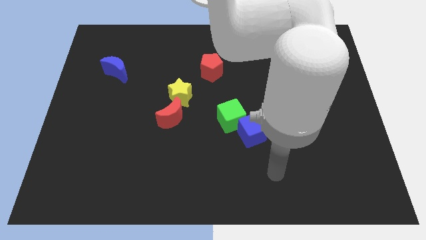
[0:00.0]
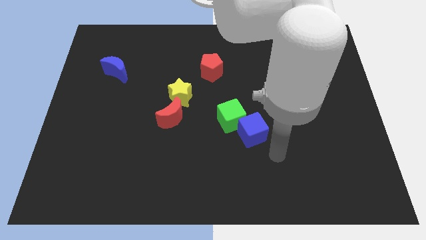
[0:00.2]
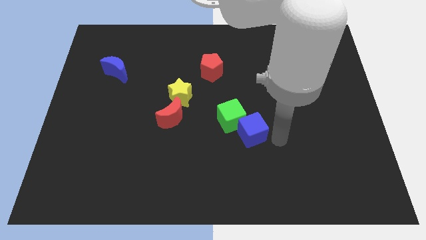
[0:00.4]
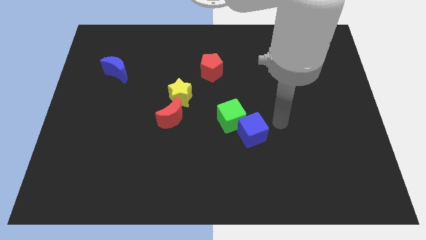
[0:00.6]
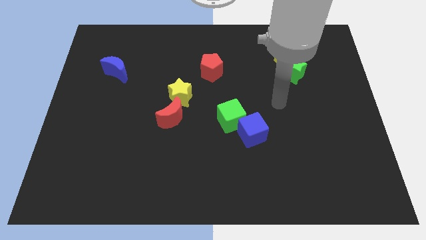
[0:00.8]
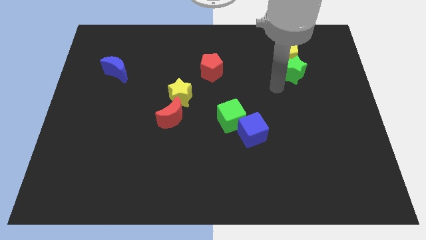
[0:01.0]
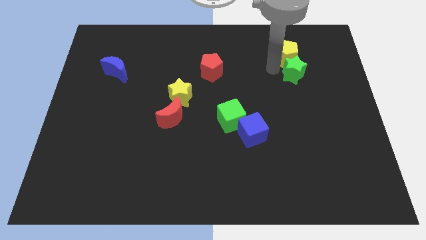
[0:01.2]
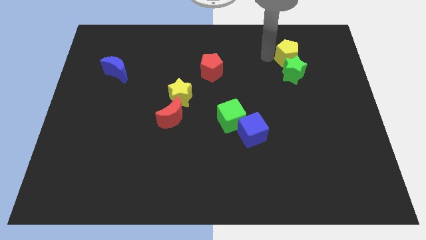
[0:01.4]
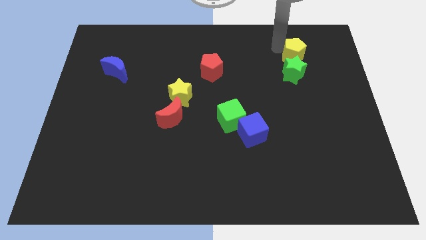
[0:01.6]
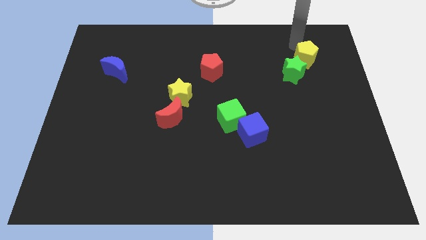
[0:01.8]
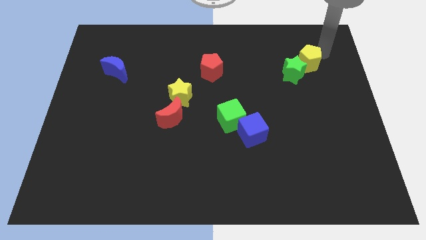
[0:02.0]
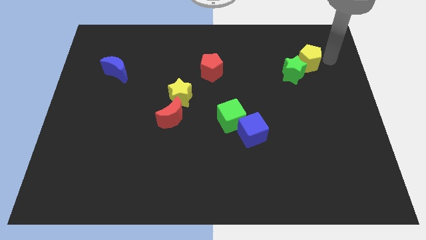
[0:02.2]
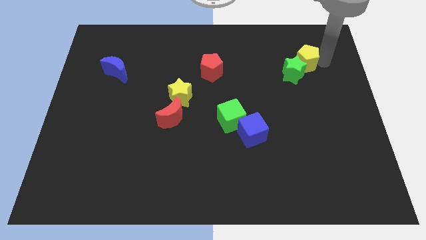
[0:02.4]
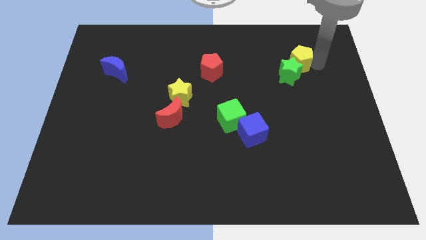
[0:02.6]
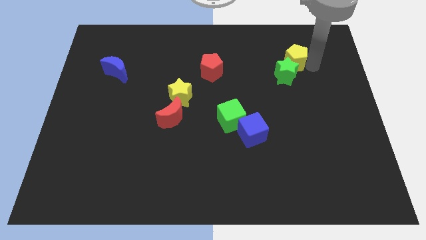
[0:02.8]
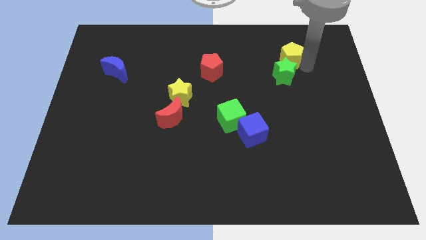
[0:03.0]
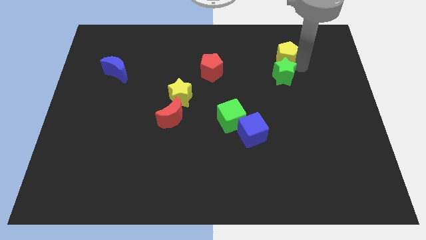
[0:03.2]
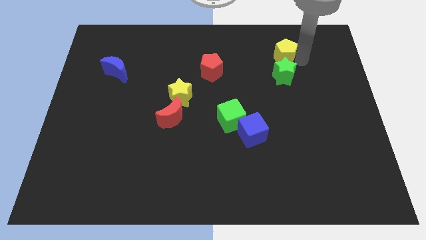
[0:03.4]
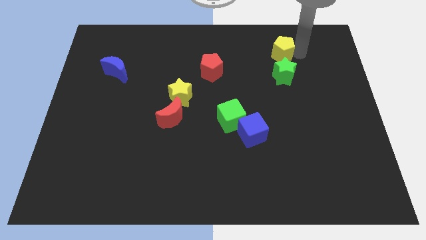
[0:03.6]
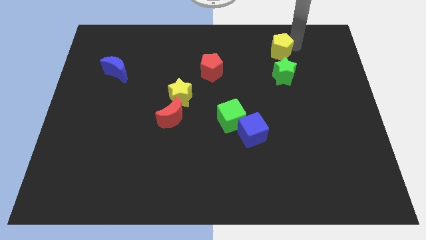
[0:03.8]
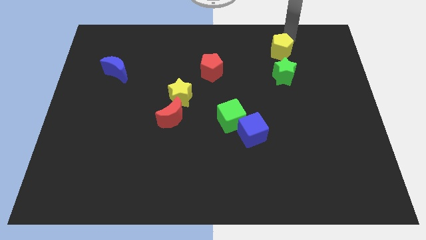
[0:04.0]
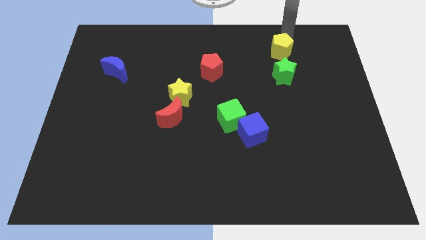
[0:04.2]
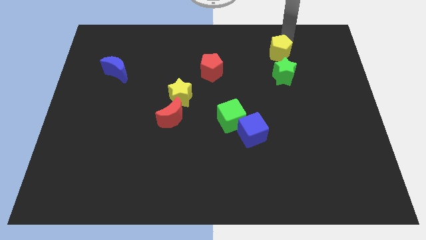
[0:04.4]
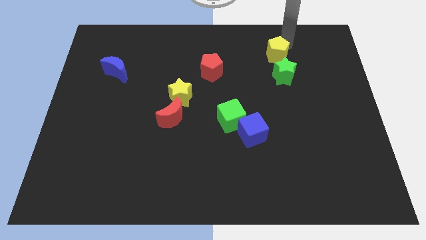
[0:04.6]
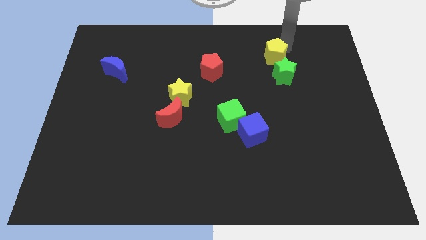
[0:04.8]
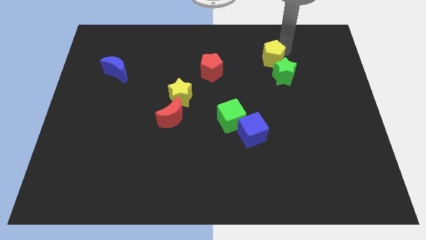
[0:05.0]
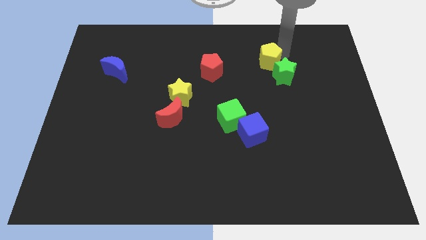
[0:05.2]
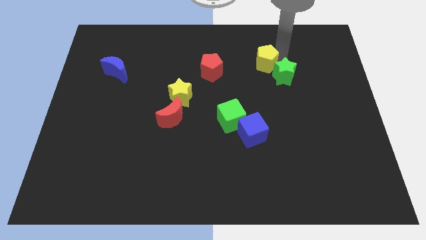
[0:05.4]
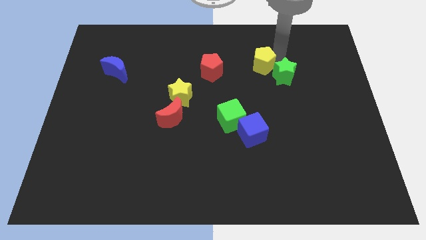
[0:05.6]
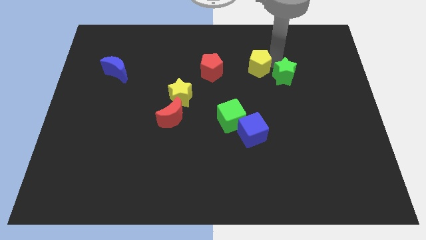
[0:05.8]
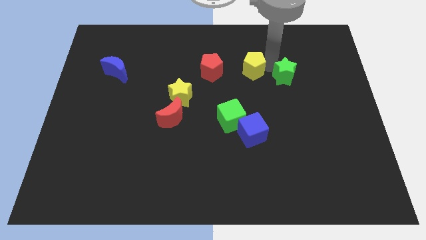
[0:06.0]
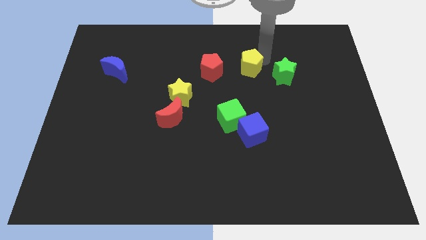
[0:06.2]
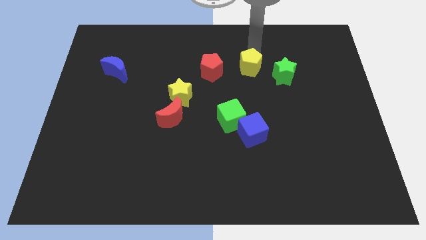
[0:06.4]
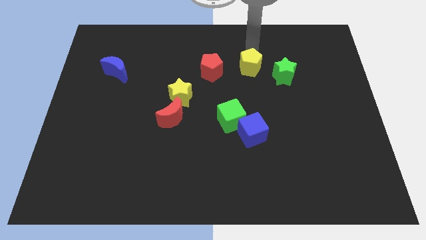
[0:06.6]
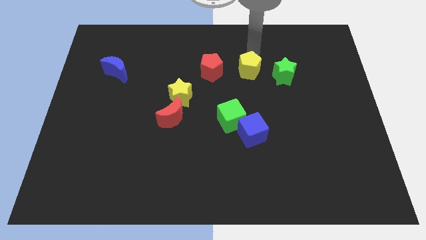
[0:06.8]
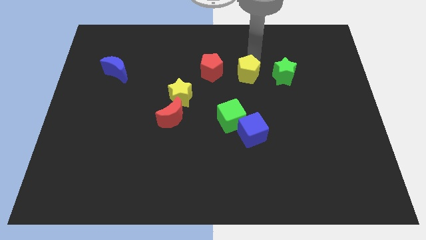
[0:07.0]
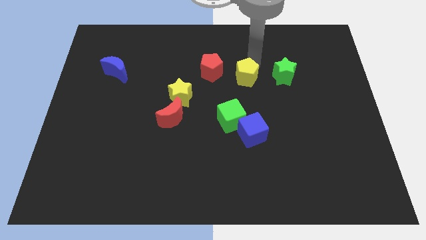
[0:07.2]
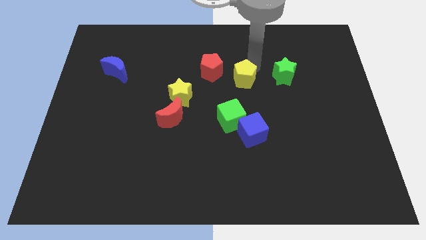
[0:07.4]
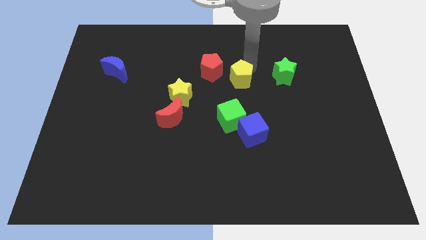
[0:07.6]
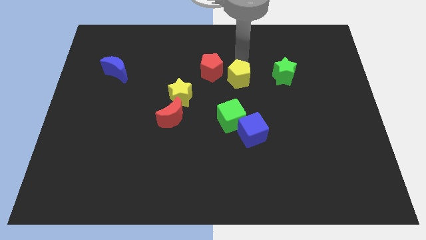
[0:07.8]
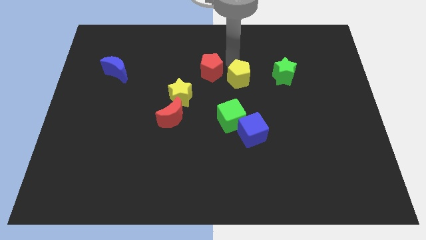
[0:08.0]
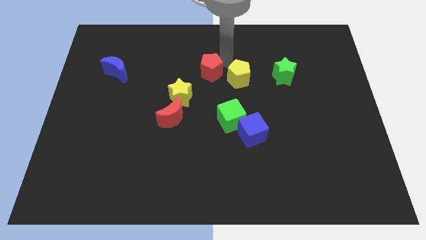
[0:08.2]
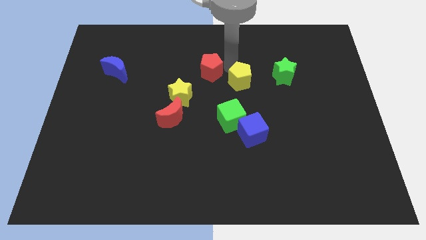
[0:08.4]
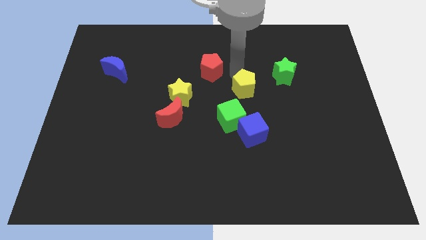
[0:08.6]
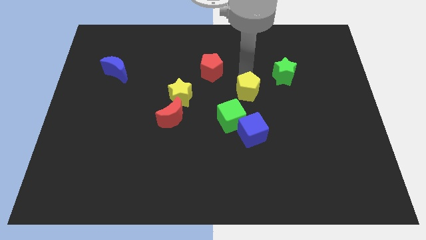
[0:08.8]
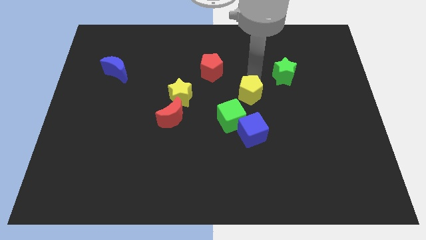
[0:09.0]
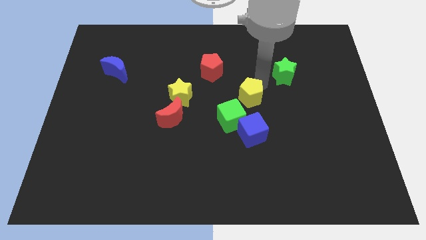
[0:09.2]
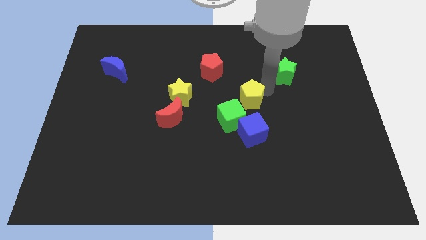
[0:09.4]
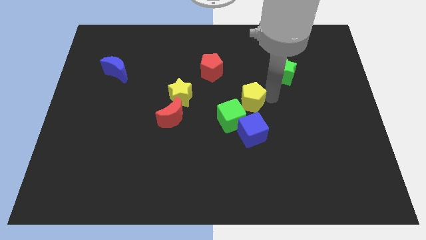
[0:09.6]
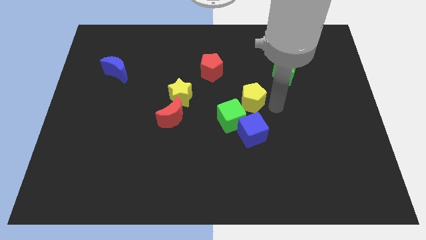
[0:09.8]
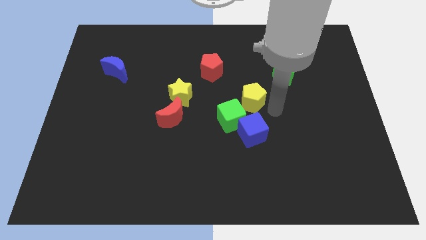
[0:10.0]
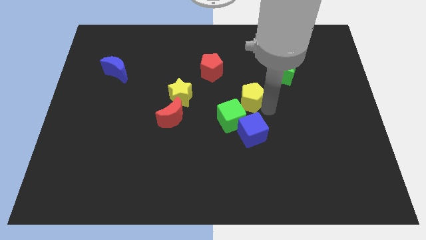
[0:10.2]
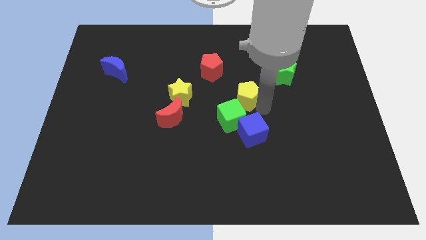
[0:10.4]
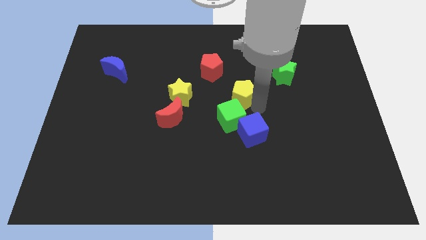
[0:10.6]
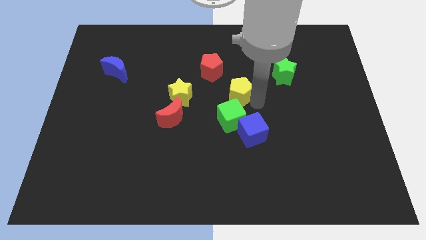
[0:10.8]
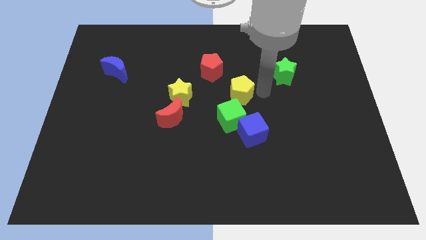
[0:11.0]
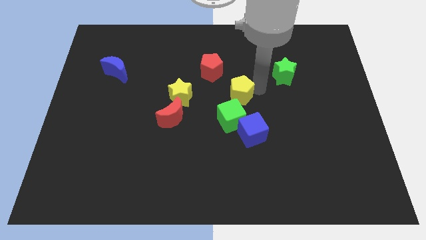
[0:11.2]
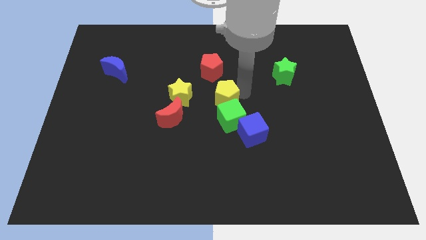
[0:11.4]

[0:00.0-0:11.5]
put the yellow pentagon to the top left side of the green cube

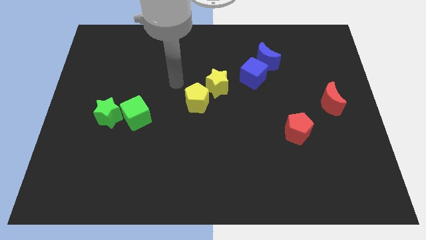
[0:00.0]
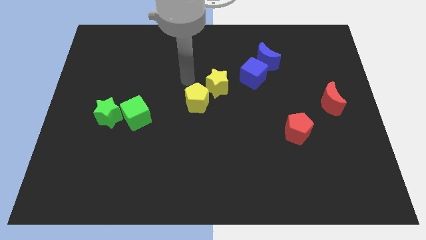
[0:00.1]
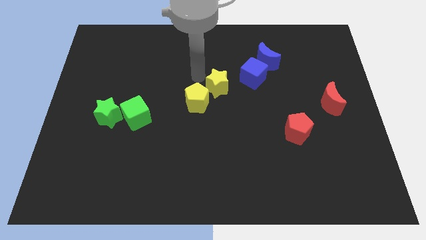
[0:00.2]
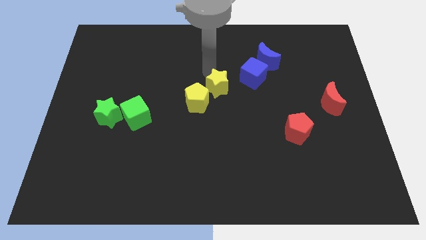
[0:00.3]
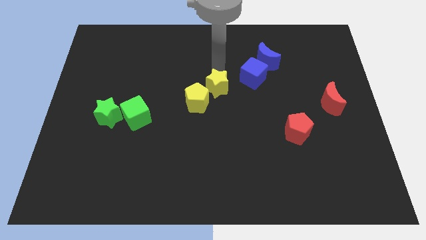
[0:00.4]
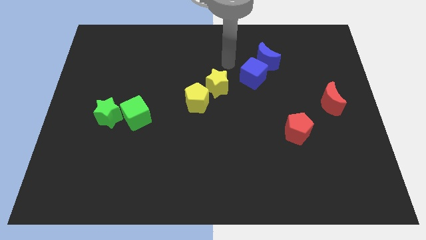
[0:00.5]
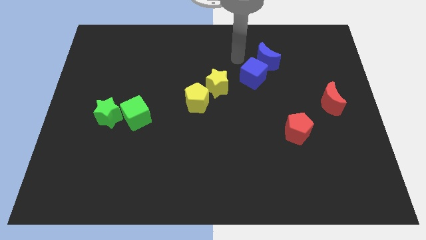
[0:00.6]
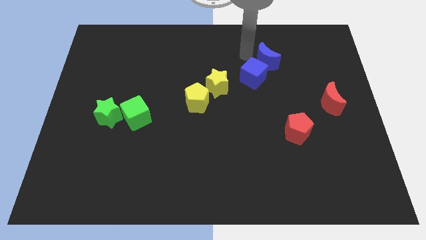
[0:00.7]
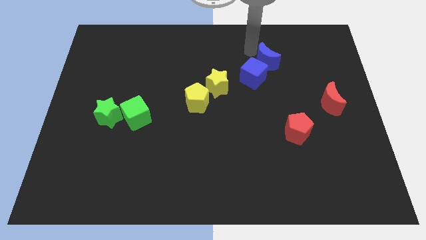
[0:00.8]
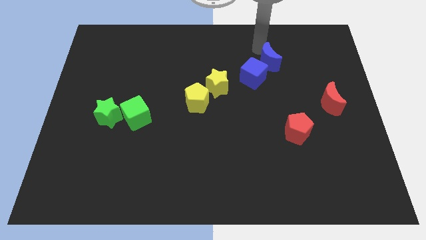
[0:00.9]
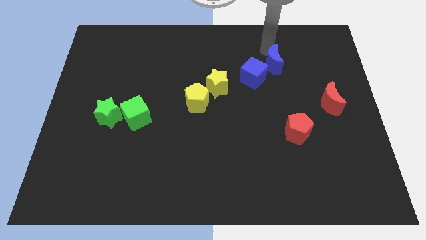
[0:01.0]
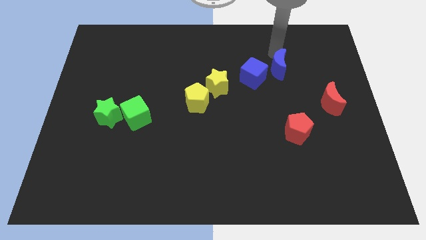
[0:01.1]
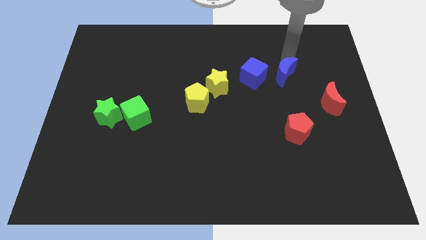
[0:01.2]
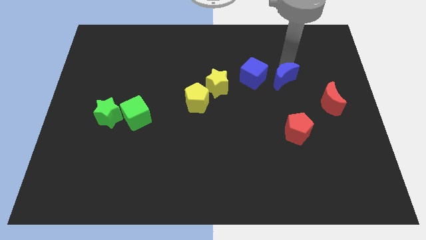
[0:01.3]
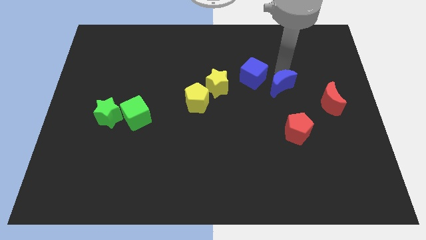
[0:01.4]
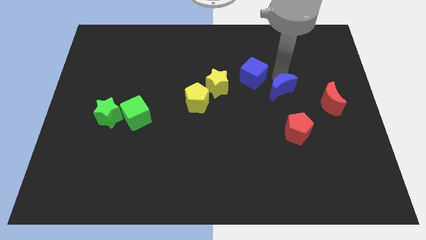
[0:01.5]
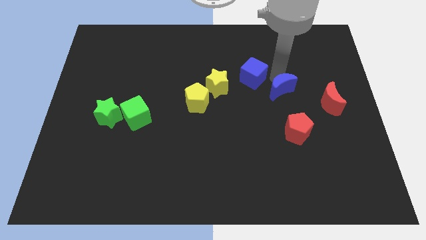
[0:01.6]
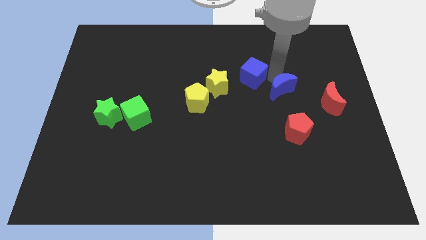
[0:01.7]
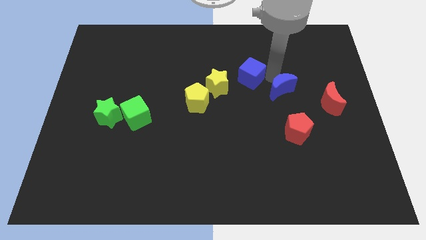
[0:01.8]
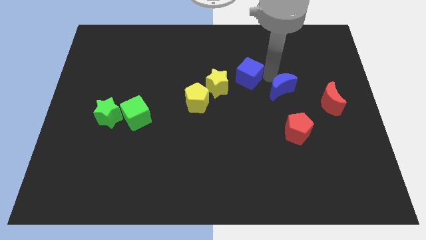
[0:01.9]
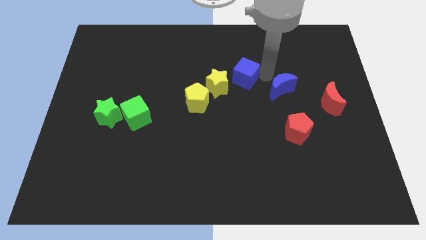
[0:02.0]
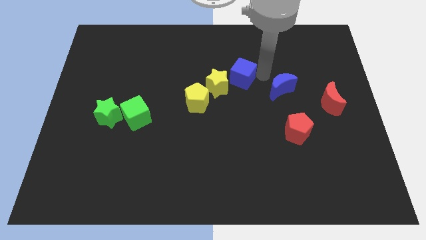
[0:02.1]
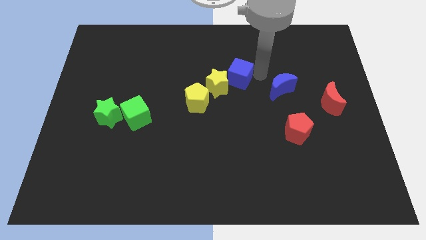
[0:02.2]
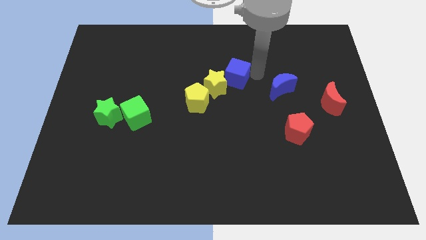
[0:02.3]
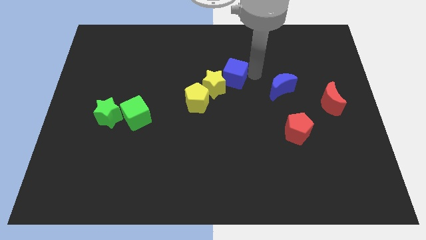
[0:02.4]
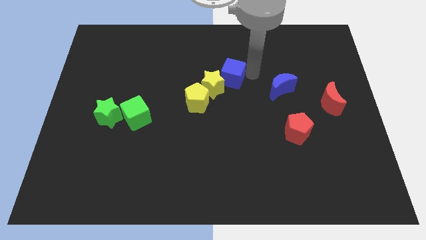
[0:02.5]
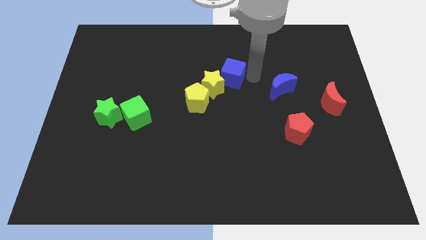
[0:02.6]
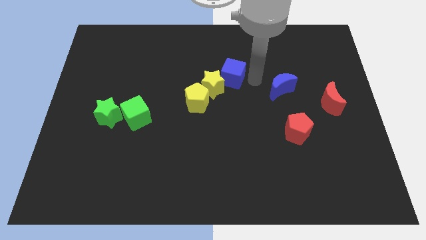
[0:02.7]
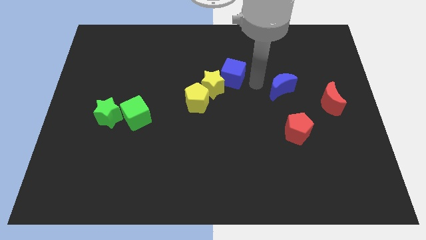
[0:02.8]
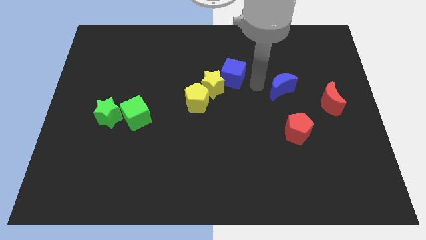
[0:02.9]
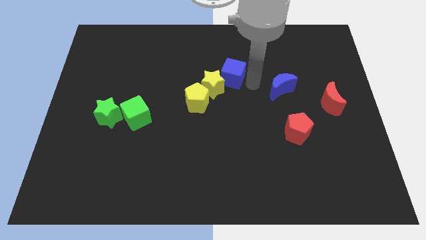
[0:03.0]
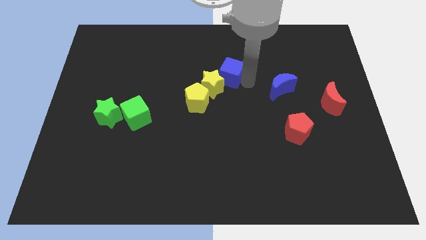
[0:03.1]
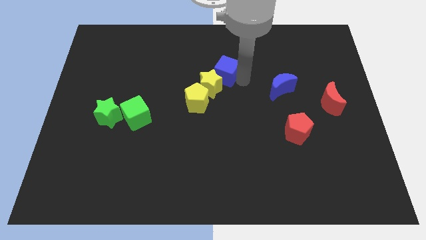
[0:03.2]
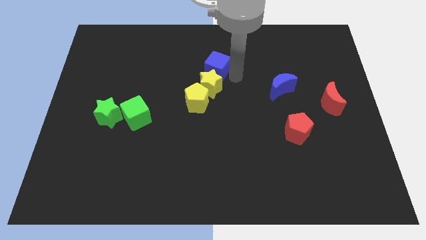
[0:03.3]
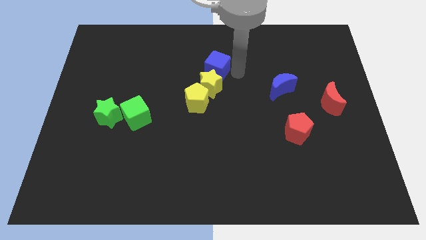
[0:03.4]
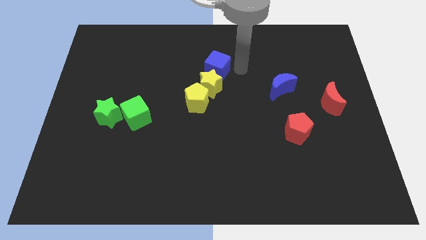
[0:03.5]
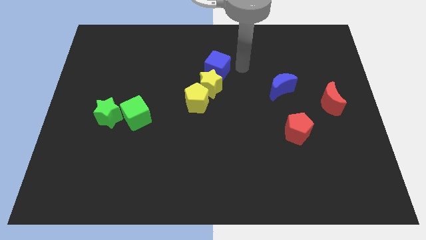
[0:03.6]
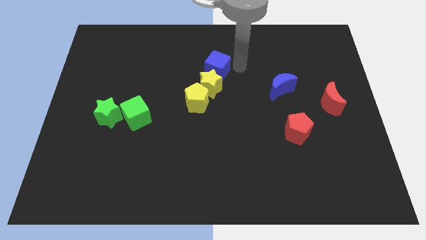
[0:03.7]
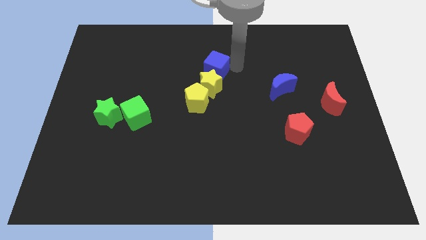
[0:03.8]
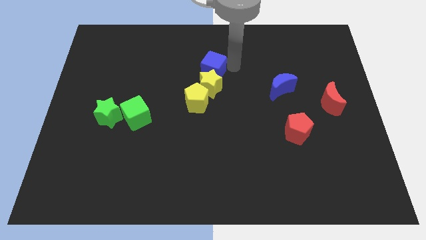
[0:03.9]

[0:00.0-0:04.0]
push the blue cube diagonally up and to the left of the yellow star
